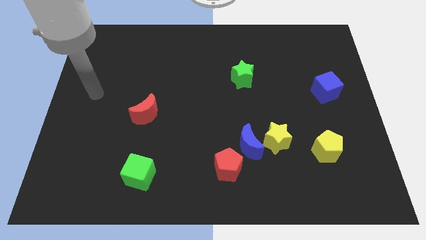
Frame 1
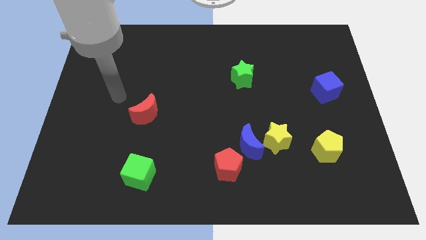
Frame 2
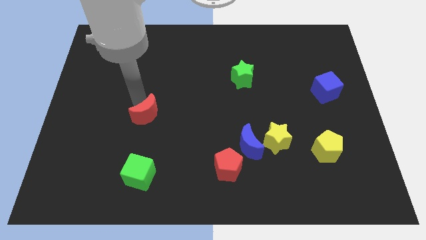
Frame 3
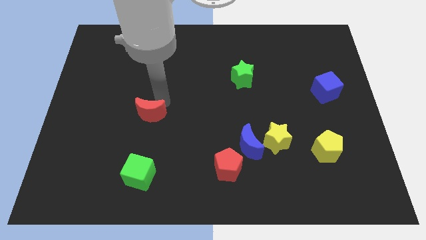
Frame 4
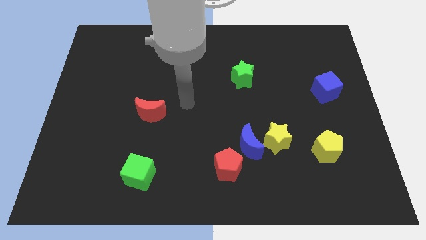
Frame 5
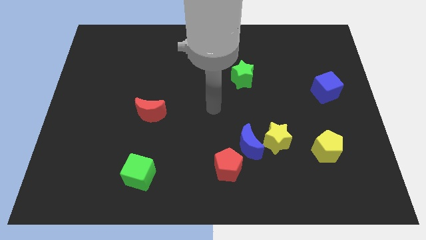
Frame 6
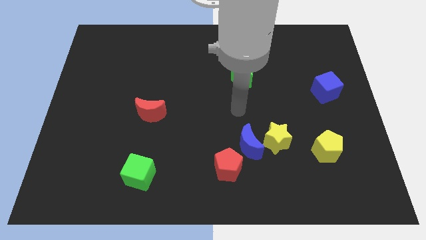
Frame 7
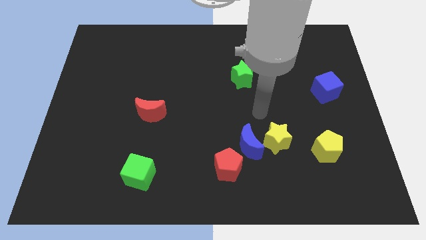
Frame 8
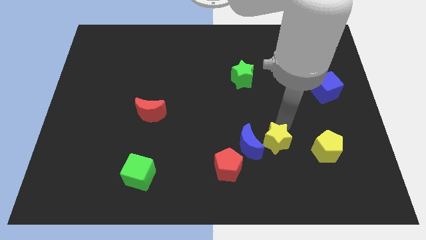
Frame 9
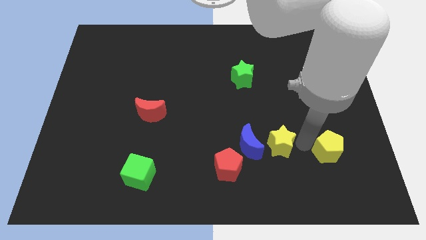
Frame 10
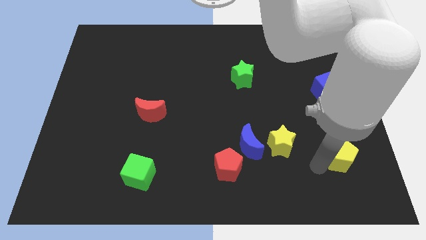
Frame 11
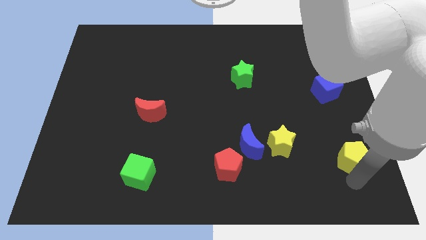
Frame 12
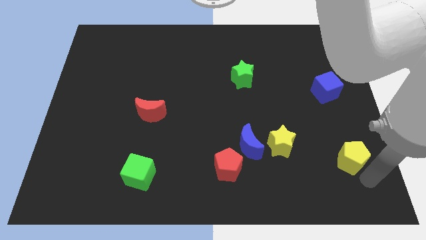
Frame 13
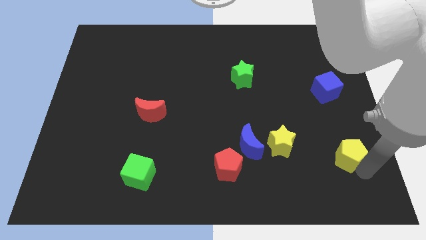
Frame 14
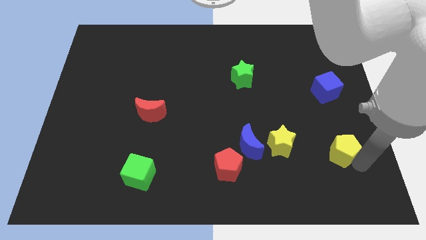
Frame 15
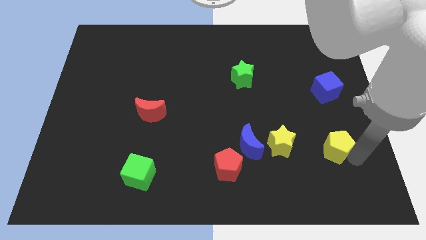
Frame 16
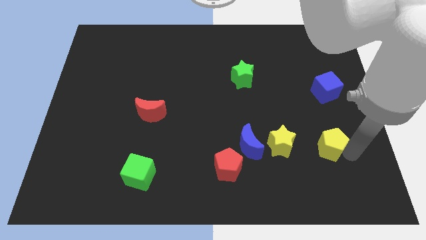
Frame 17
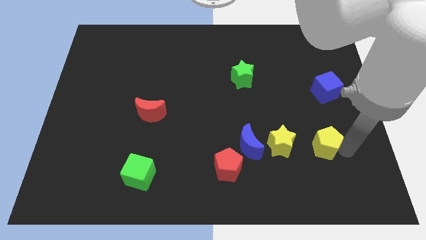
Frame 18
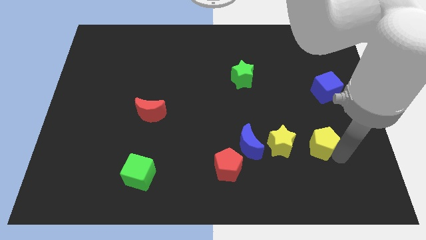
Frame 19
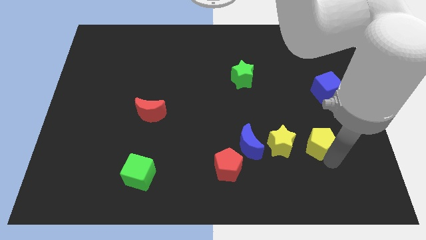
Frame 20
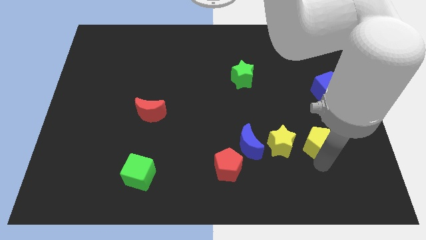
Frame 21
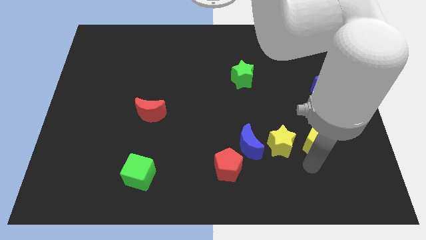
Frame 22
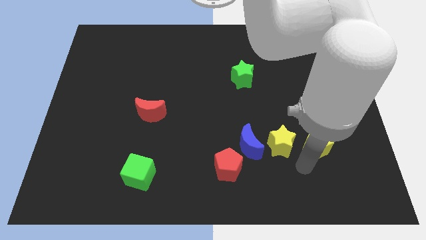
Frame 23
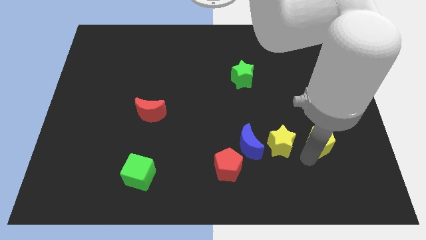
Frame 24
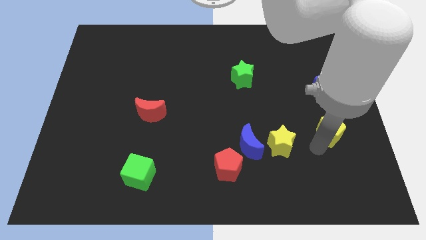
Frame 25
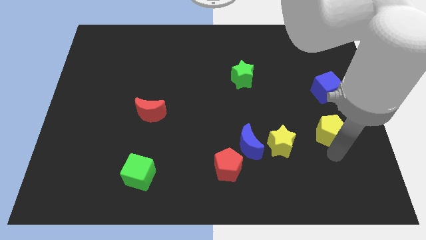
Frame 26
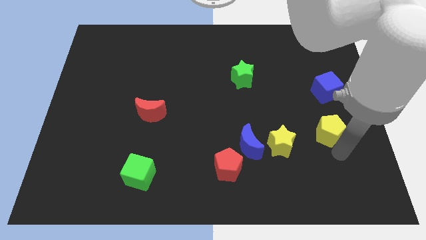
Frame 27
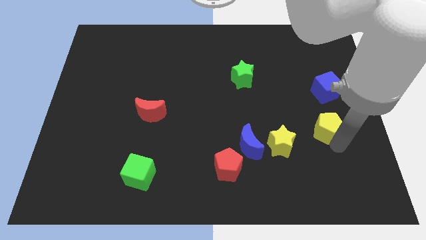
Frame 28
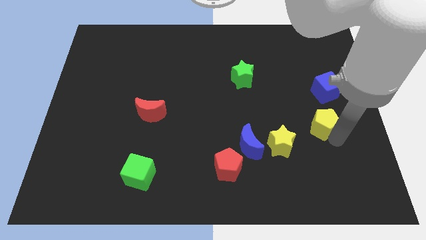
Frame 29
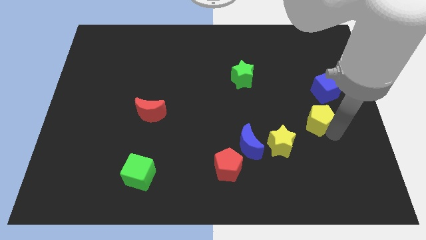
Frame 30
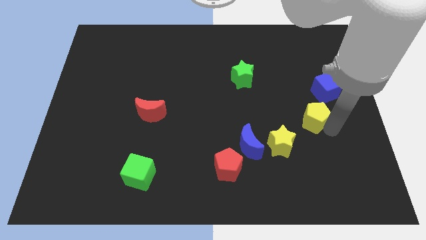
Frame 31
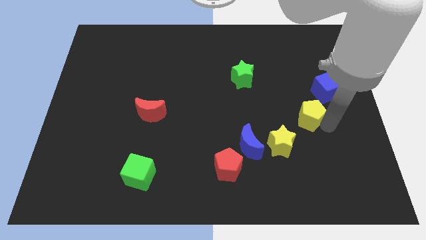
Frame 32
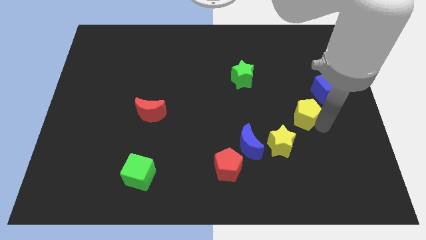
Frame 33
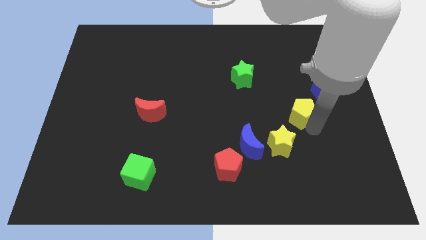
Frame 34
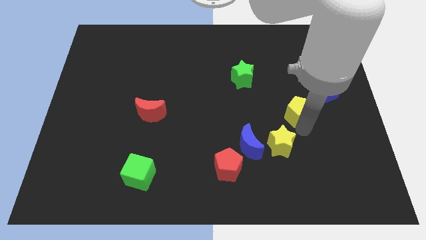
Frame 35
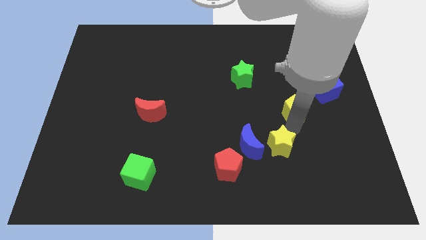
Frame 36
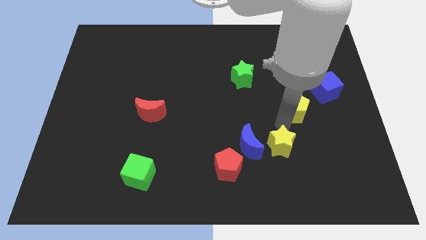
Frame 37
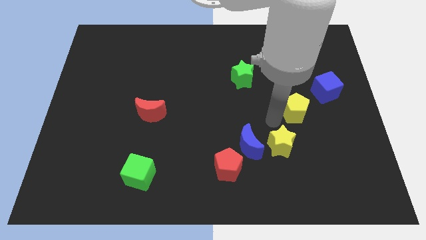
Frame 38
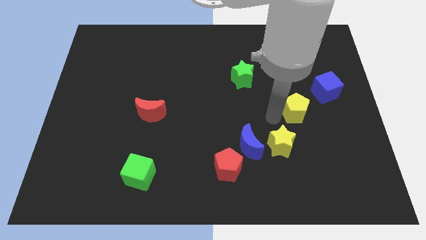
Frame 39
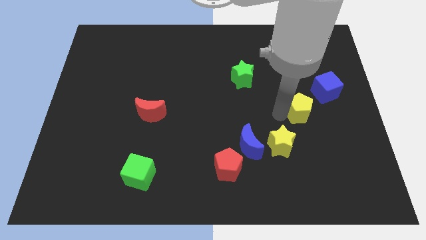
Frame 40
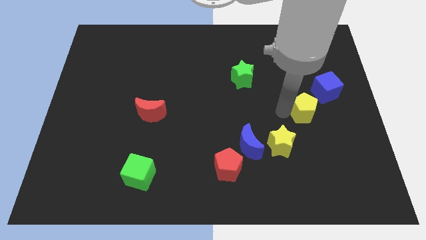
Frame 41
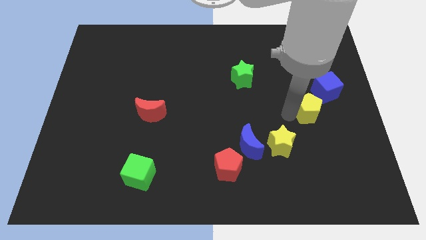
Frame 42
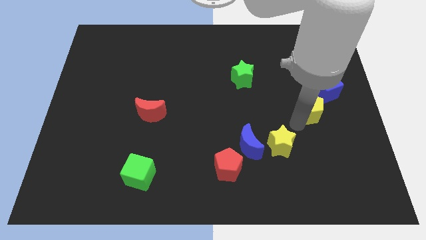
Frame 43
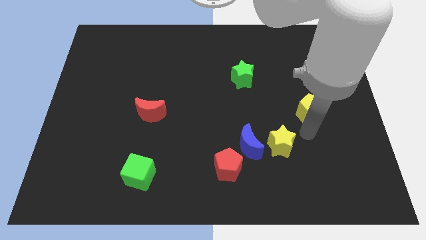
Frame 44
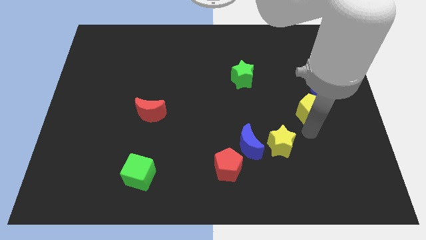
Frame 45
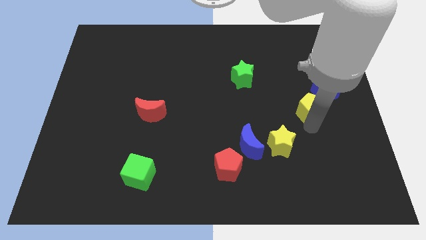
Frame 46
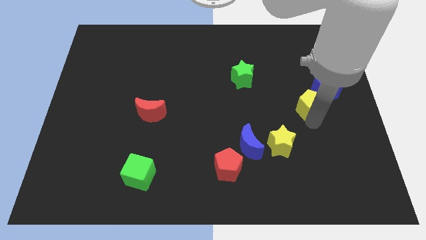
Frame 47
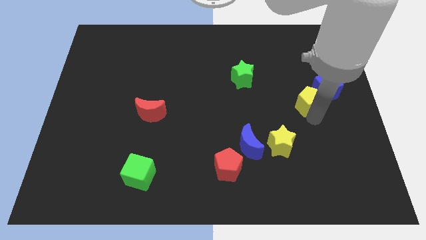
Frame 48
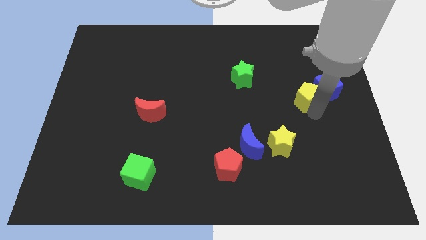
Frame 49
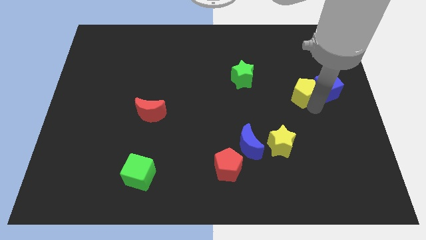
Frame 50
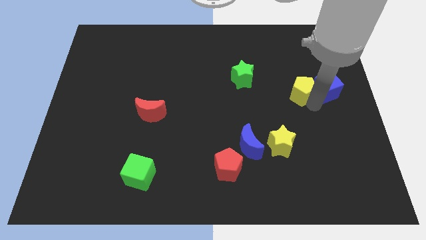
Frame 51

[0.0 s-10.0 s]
push the yellow pentagon to the top left of the blue cube

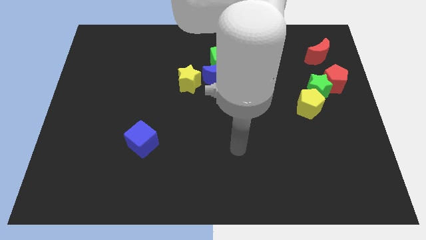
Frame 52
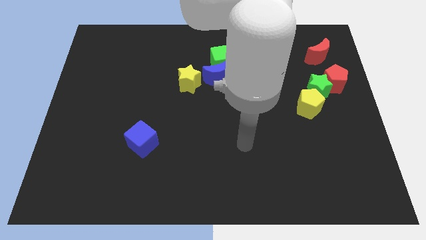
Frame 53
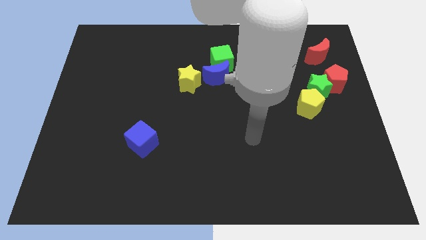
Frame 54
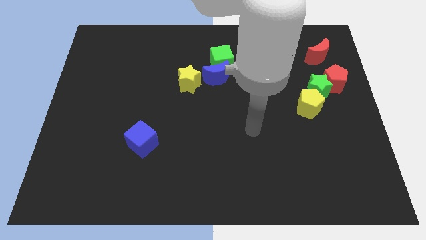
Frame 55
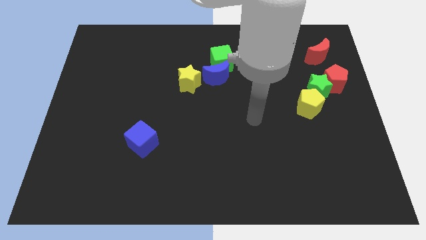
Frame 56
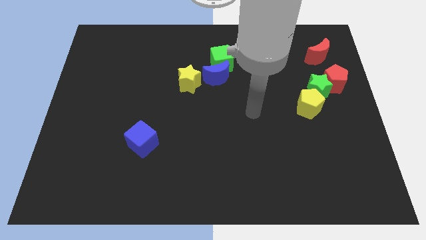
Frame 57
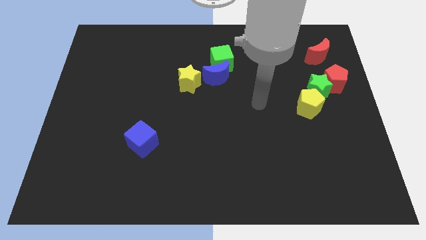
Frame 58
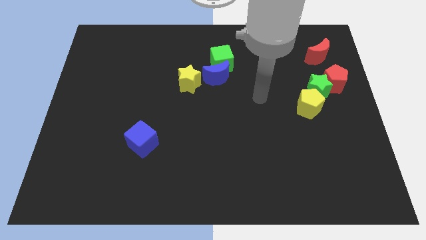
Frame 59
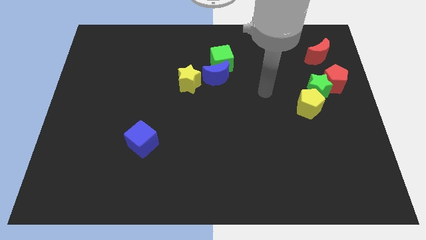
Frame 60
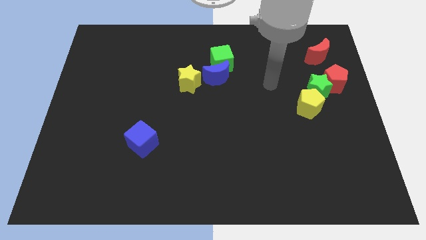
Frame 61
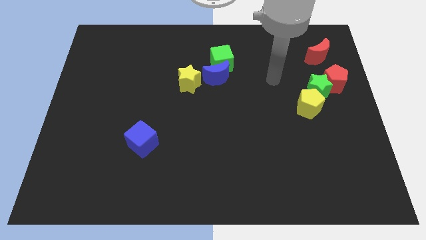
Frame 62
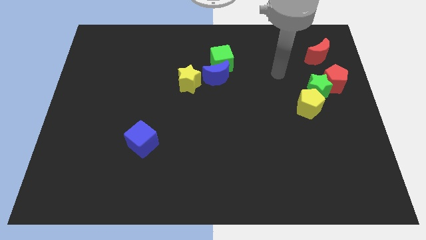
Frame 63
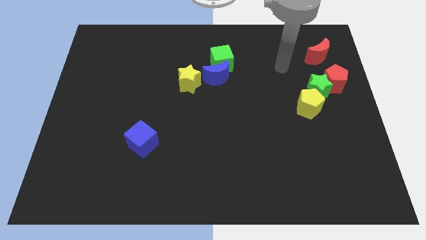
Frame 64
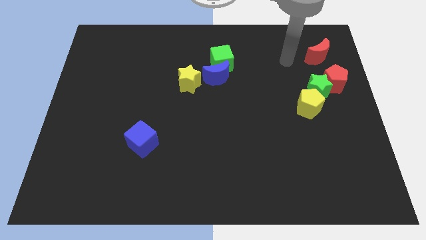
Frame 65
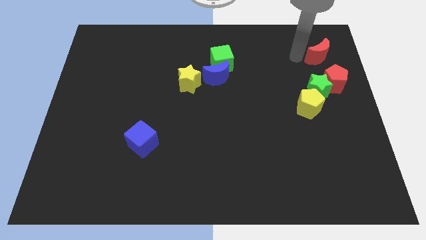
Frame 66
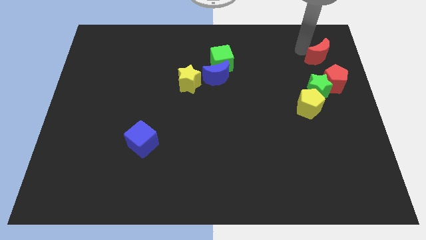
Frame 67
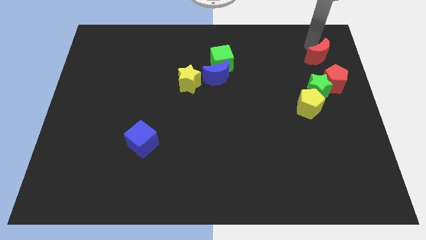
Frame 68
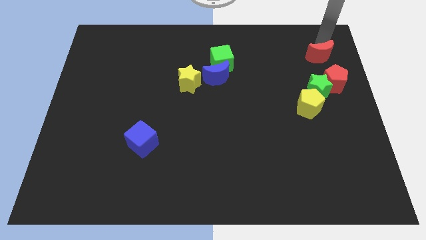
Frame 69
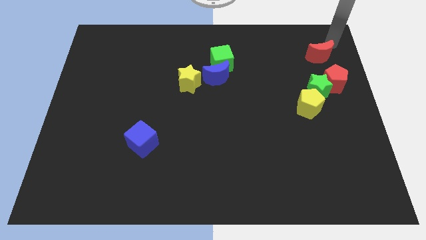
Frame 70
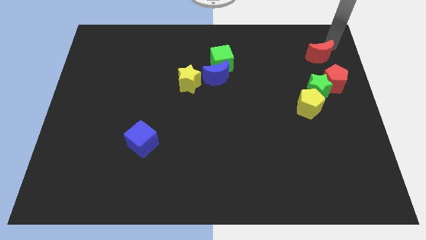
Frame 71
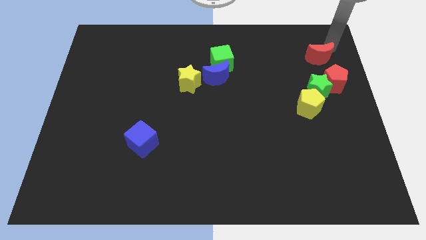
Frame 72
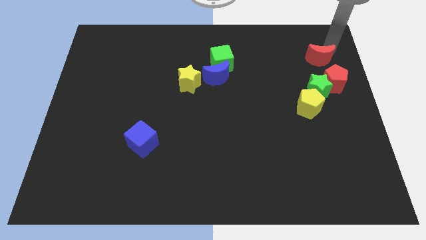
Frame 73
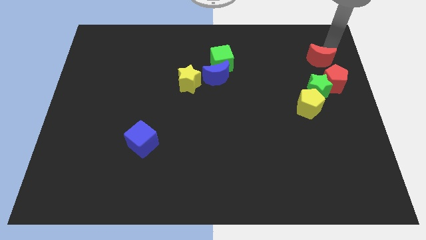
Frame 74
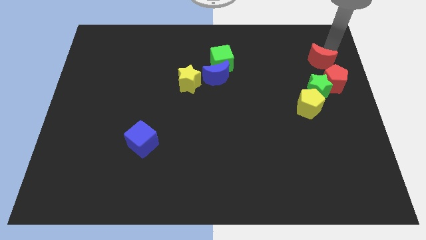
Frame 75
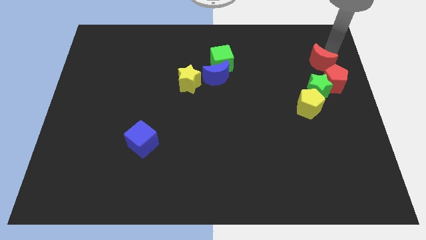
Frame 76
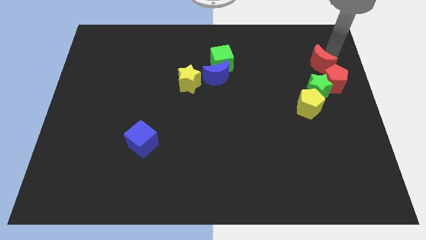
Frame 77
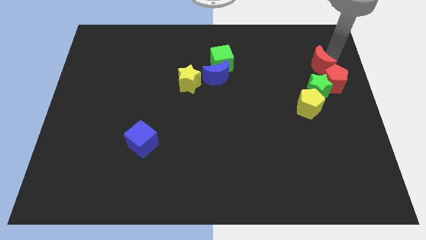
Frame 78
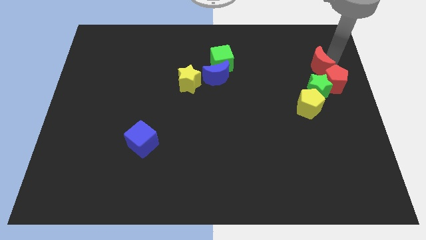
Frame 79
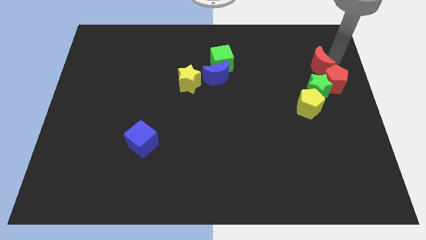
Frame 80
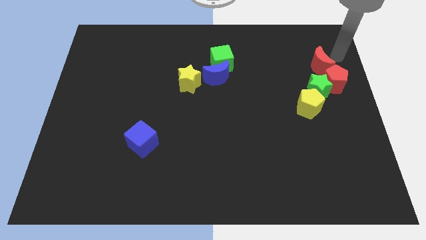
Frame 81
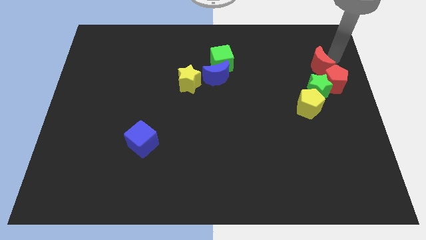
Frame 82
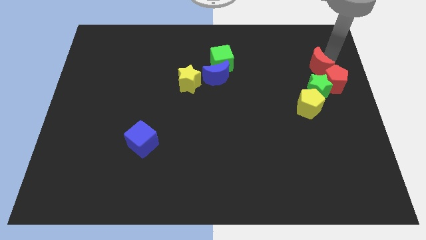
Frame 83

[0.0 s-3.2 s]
move the red moon to the top side of the yellow pentagon
